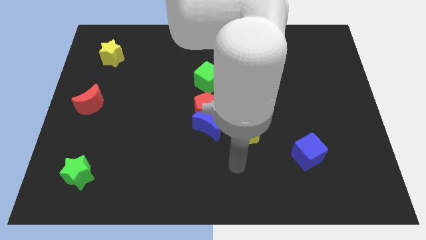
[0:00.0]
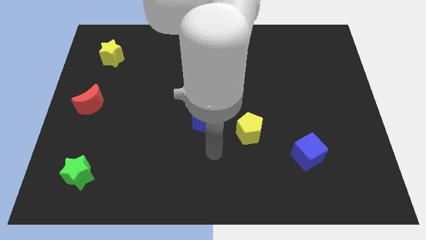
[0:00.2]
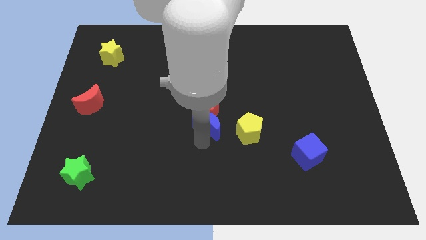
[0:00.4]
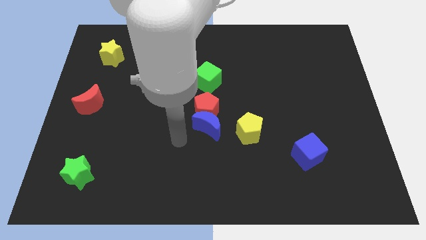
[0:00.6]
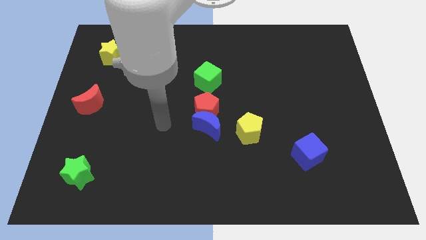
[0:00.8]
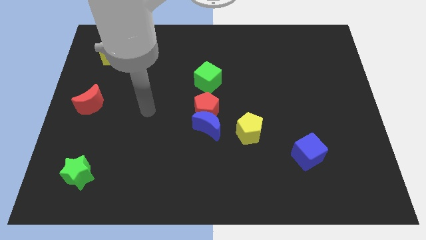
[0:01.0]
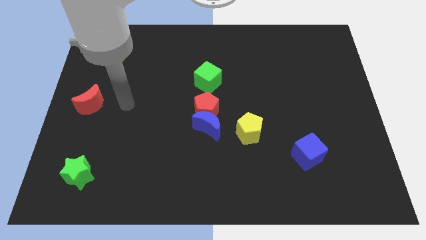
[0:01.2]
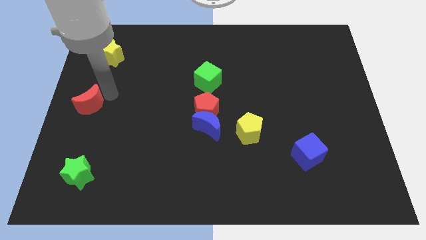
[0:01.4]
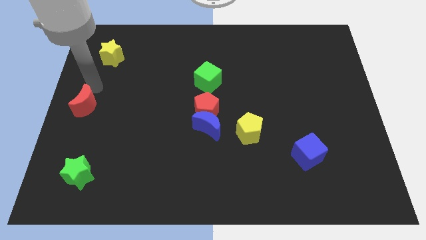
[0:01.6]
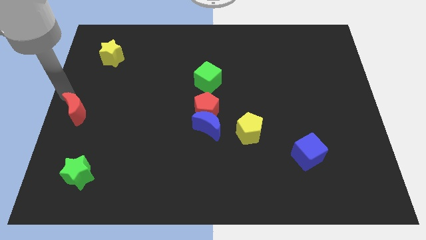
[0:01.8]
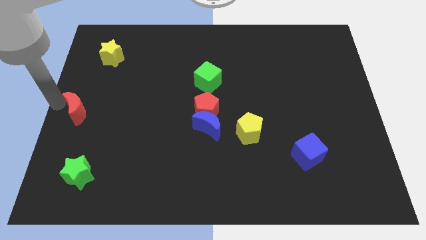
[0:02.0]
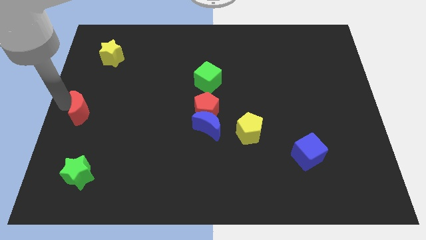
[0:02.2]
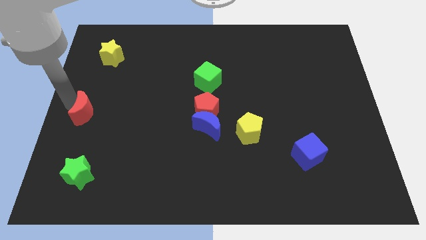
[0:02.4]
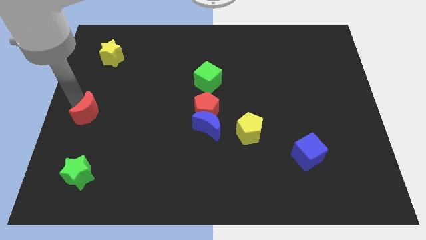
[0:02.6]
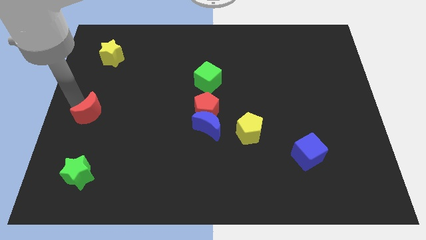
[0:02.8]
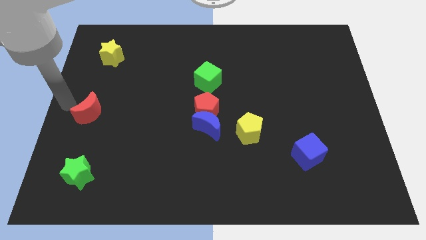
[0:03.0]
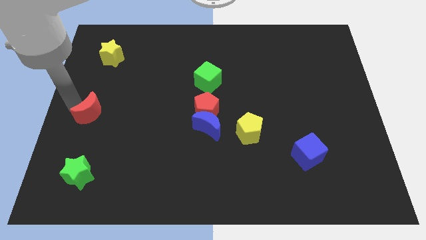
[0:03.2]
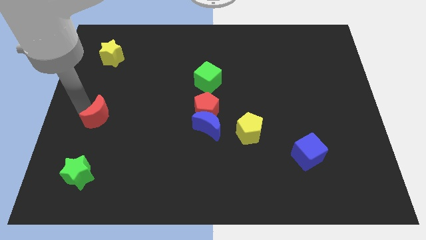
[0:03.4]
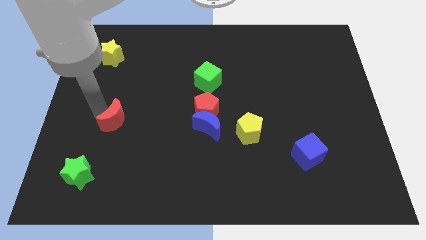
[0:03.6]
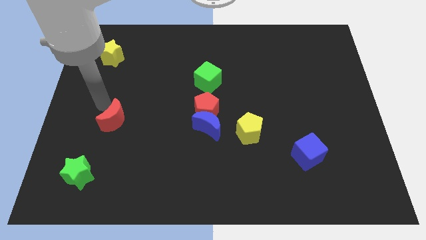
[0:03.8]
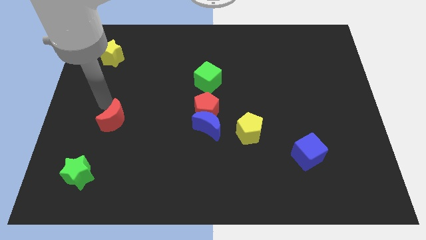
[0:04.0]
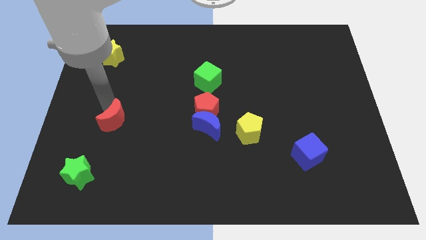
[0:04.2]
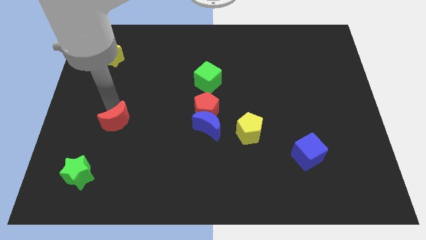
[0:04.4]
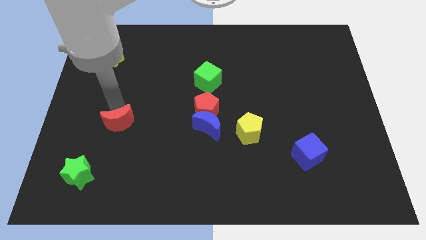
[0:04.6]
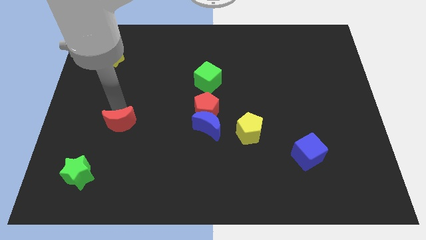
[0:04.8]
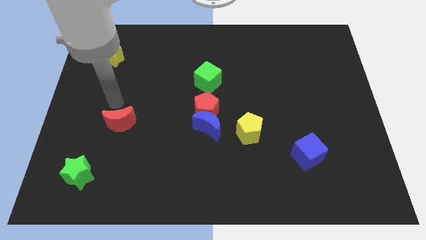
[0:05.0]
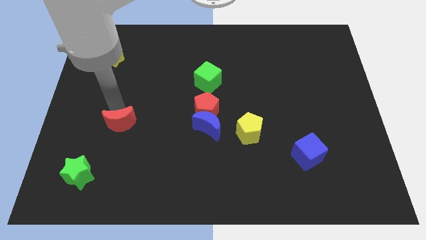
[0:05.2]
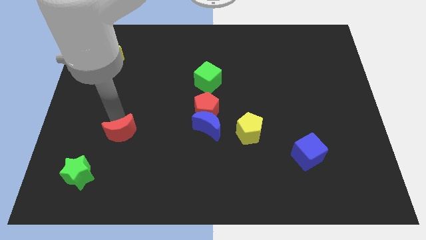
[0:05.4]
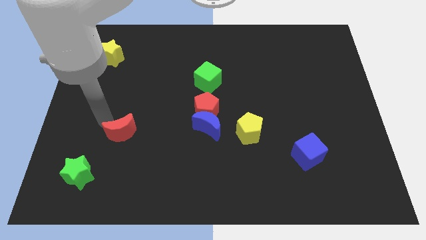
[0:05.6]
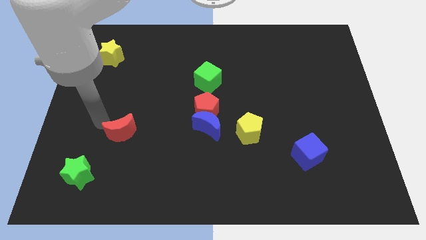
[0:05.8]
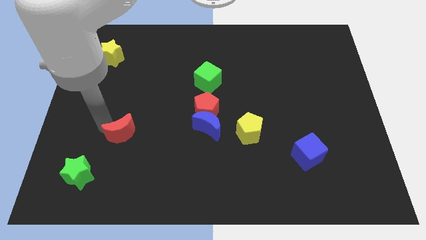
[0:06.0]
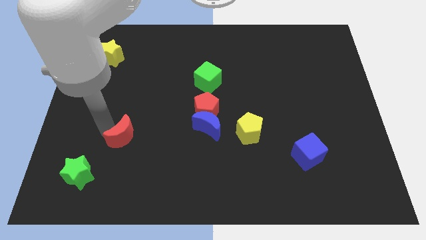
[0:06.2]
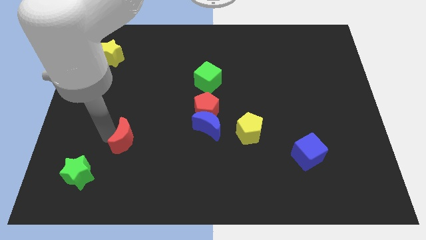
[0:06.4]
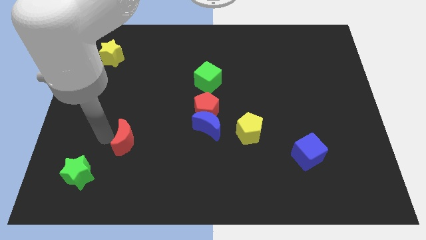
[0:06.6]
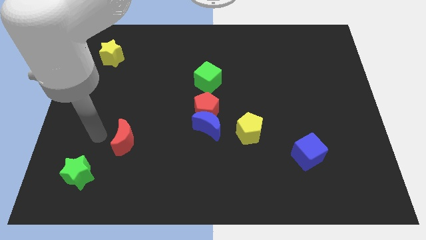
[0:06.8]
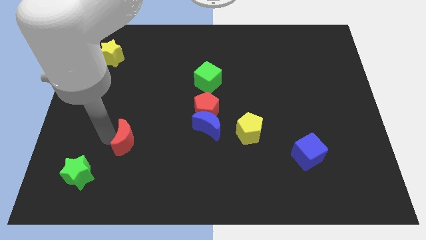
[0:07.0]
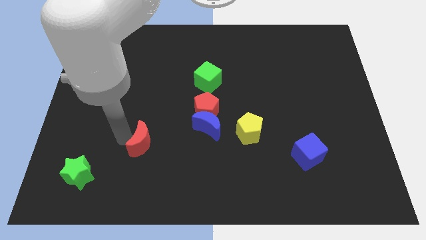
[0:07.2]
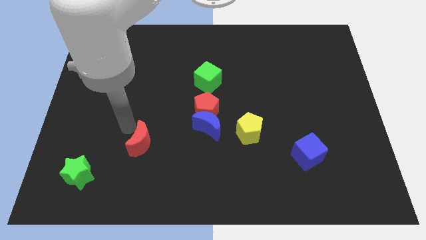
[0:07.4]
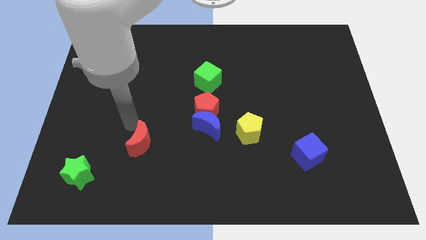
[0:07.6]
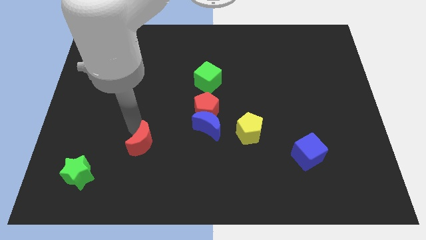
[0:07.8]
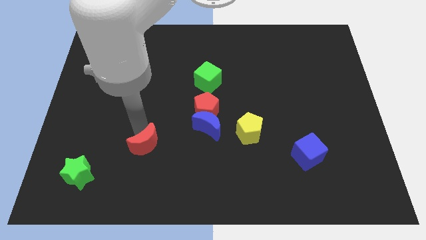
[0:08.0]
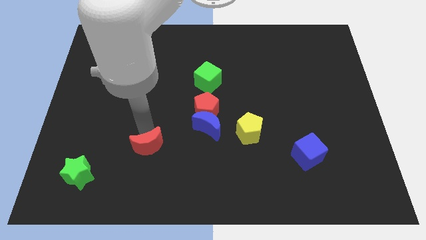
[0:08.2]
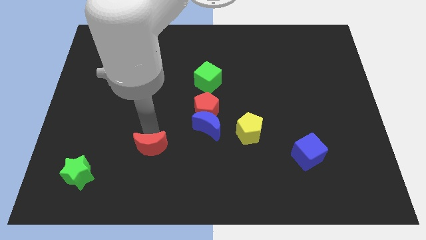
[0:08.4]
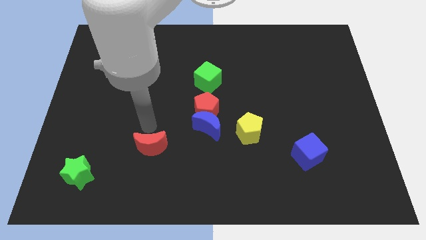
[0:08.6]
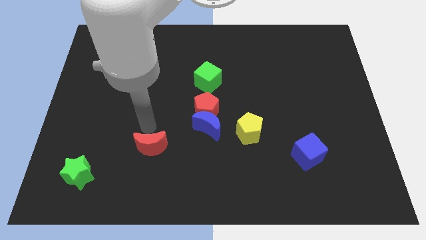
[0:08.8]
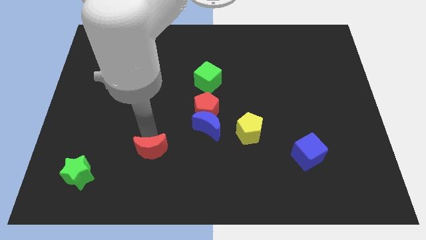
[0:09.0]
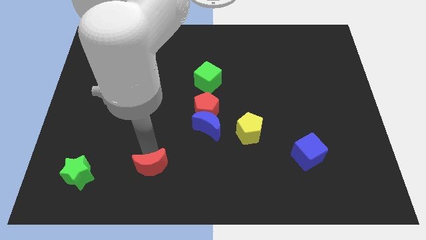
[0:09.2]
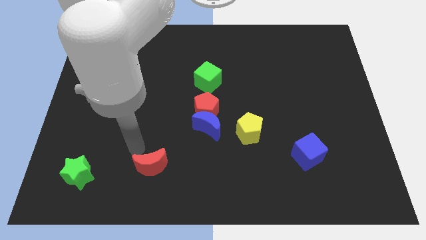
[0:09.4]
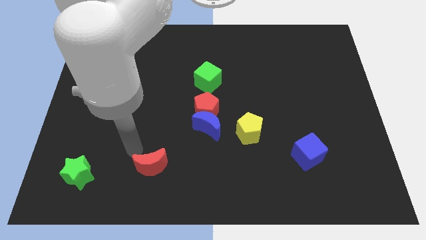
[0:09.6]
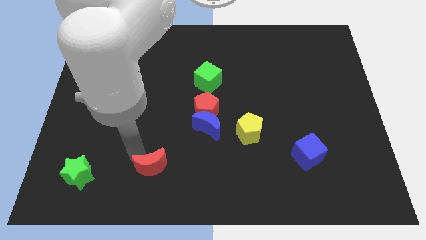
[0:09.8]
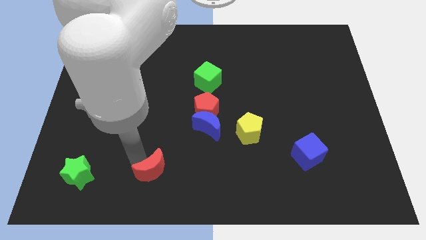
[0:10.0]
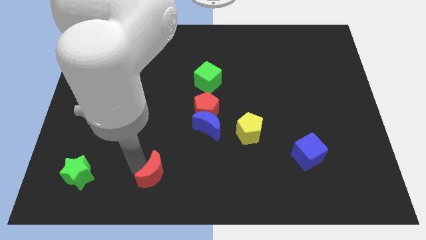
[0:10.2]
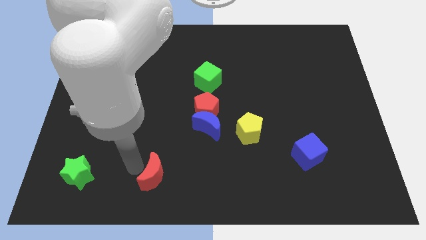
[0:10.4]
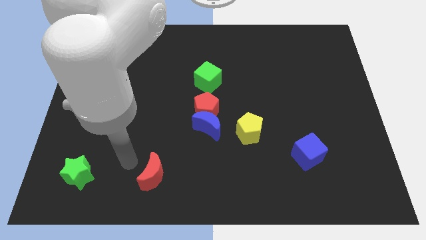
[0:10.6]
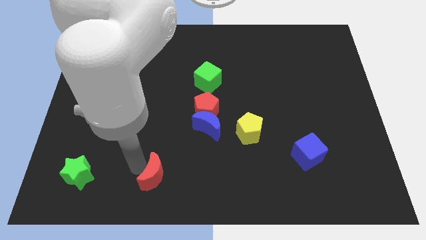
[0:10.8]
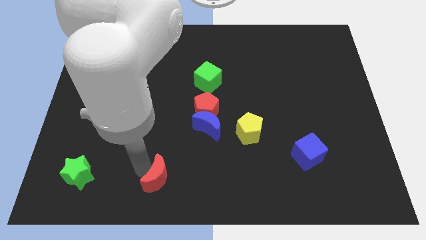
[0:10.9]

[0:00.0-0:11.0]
slide the red moon to the bottom side

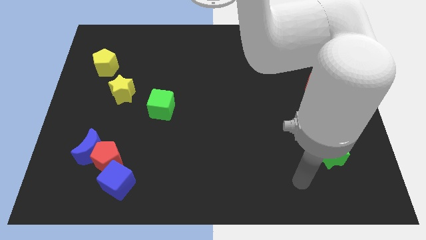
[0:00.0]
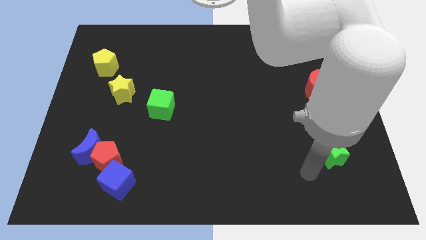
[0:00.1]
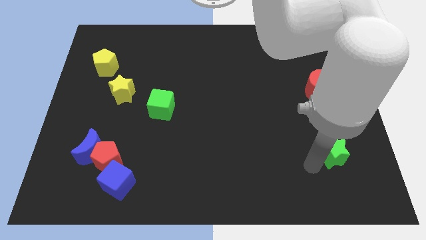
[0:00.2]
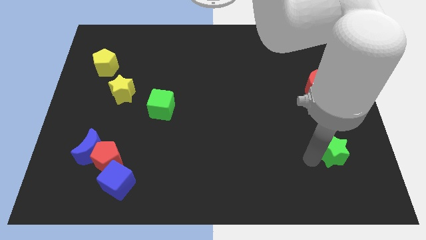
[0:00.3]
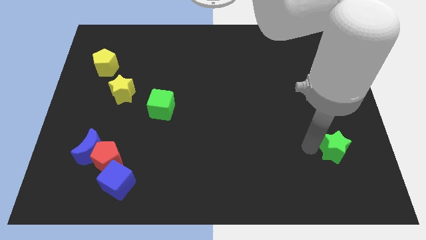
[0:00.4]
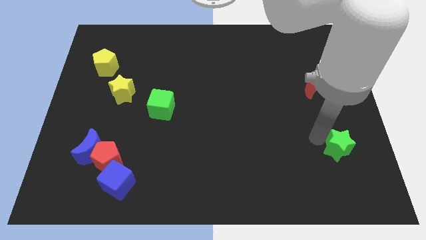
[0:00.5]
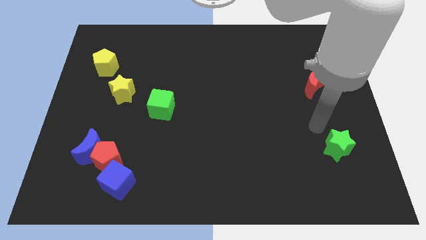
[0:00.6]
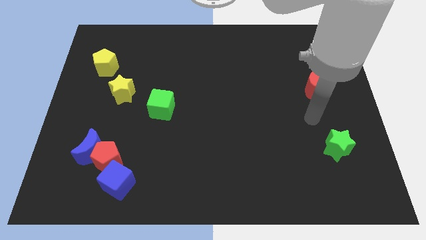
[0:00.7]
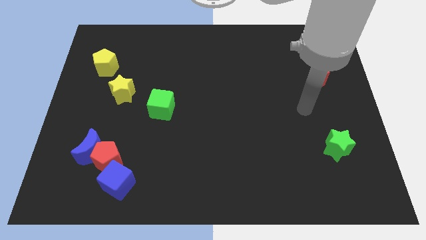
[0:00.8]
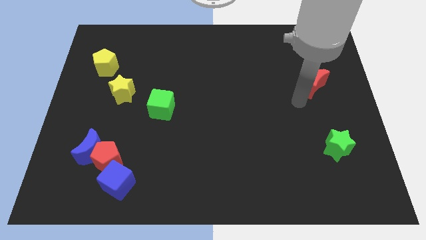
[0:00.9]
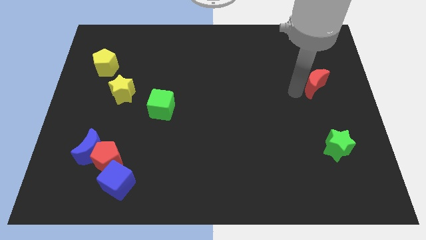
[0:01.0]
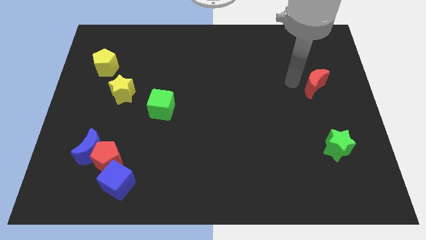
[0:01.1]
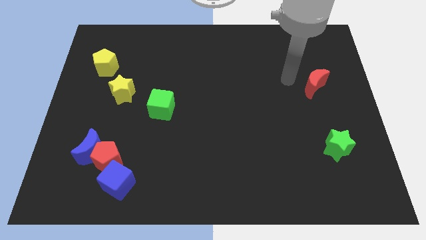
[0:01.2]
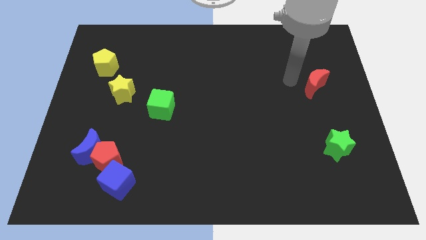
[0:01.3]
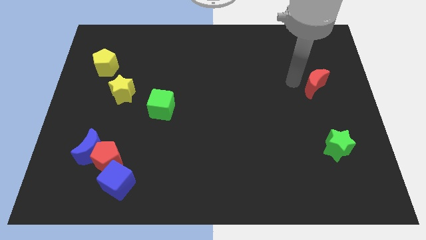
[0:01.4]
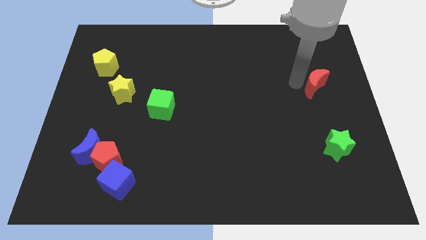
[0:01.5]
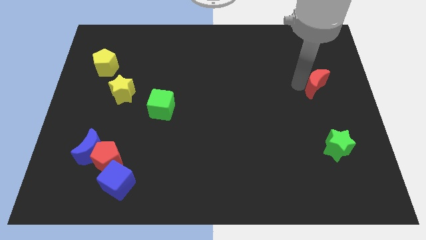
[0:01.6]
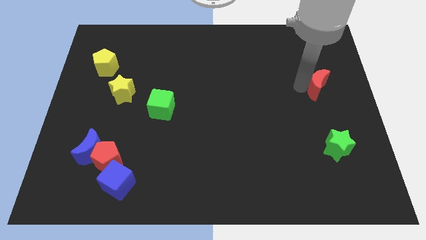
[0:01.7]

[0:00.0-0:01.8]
slide the red moon to the right side
